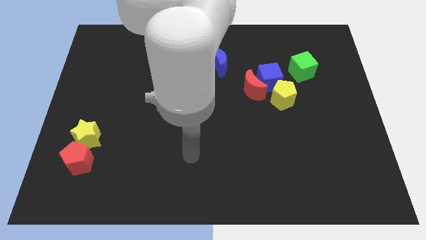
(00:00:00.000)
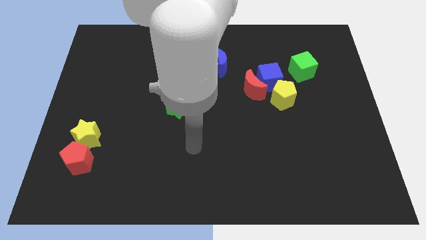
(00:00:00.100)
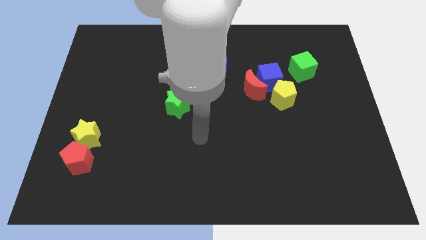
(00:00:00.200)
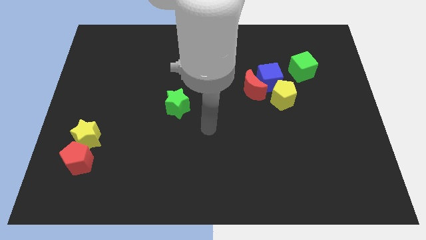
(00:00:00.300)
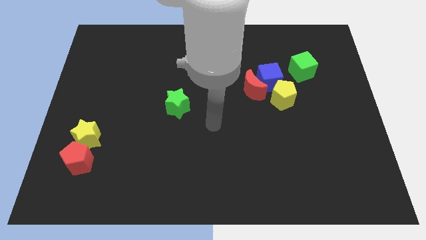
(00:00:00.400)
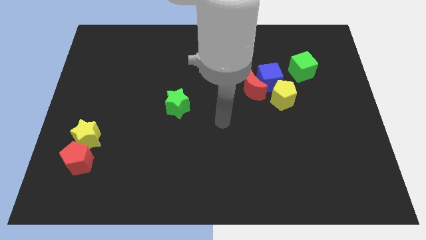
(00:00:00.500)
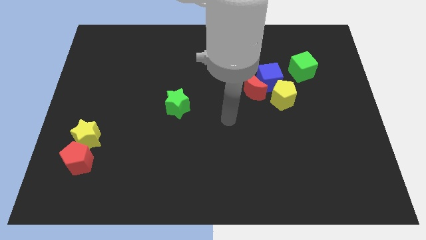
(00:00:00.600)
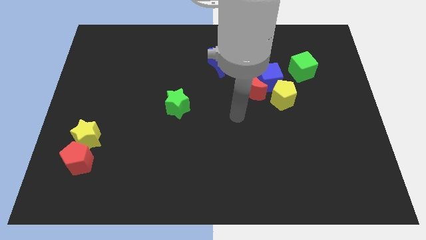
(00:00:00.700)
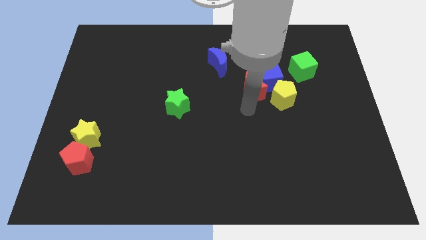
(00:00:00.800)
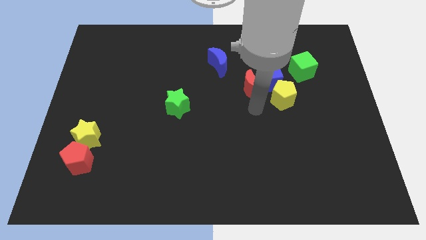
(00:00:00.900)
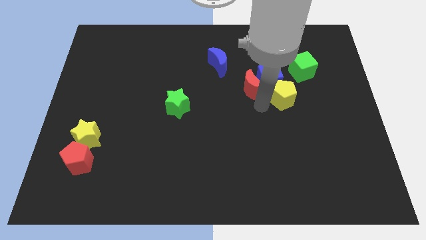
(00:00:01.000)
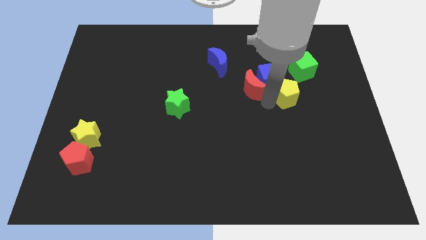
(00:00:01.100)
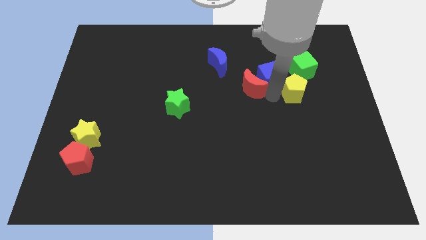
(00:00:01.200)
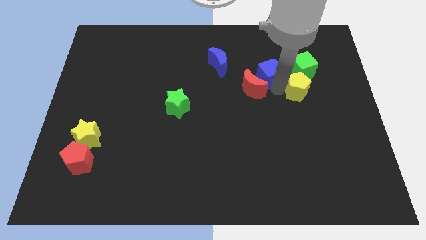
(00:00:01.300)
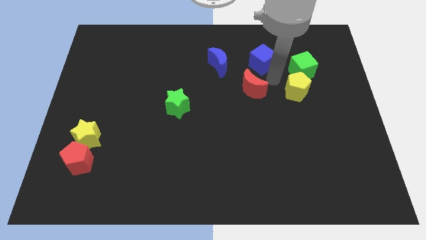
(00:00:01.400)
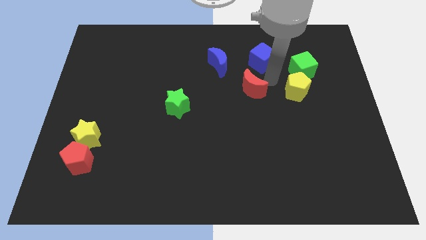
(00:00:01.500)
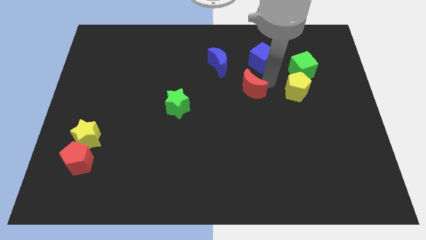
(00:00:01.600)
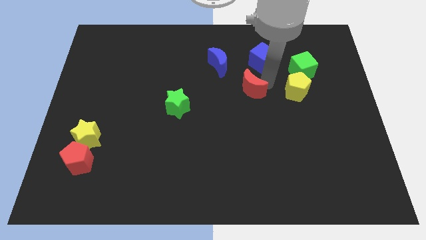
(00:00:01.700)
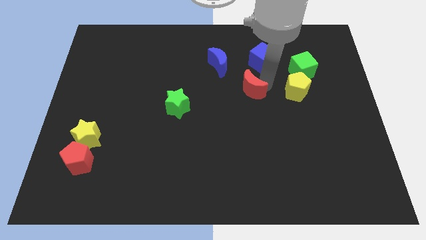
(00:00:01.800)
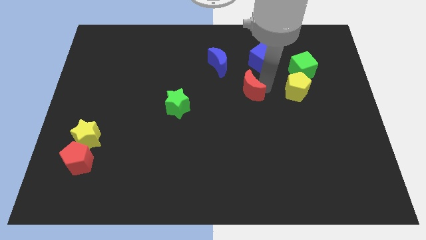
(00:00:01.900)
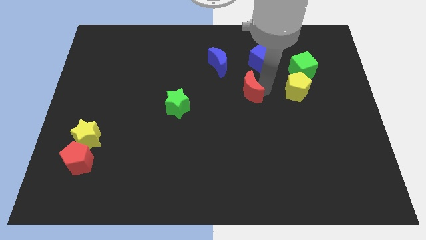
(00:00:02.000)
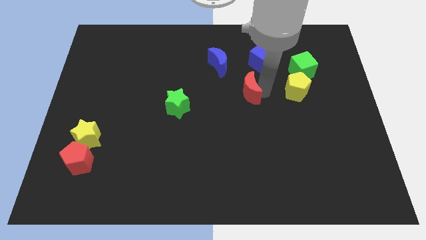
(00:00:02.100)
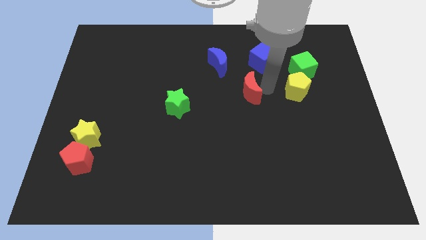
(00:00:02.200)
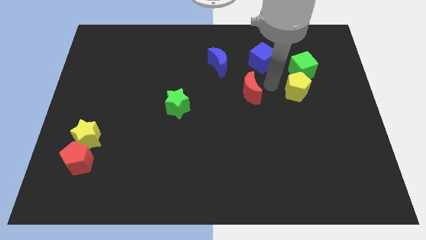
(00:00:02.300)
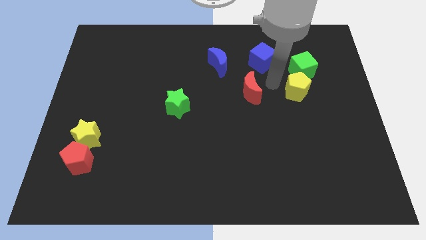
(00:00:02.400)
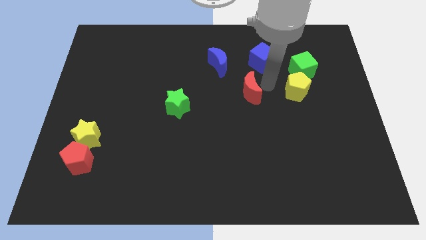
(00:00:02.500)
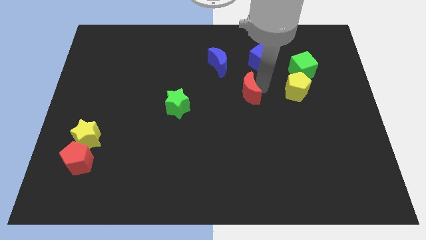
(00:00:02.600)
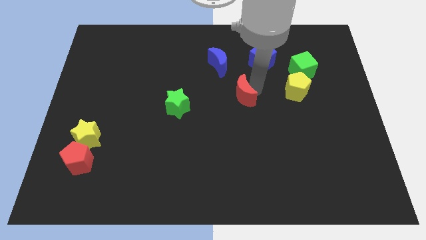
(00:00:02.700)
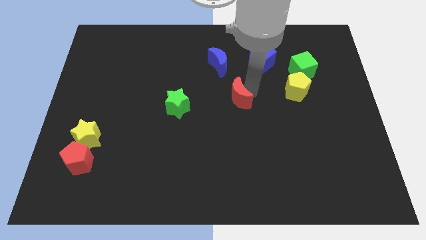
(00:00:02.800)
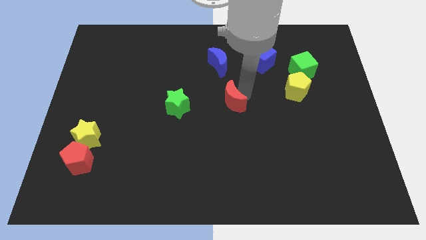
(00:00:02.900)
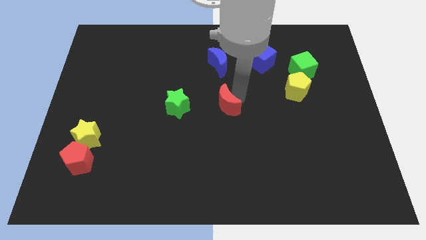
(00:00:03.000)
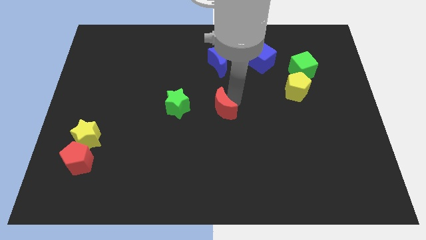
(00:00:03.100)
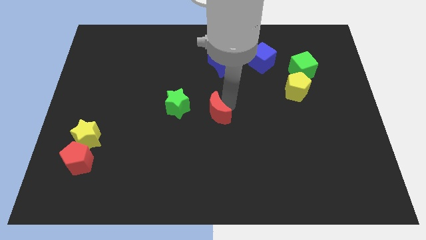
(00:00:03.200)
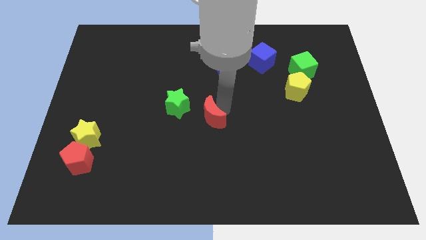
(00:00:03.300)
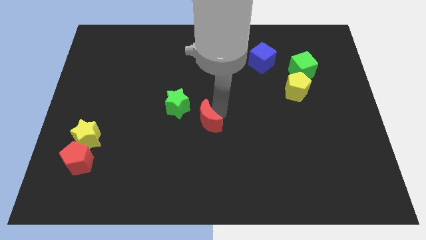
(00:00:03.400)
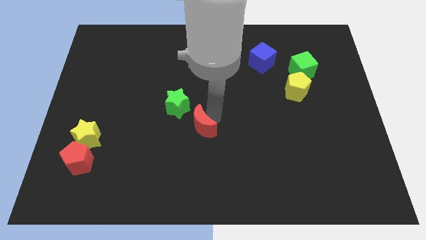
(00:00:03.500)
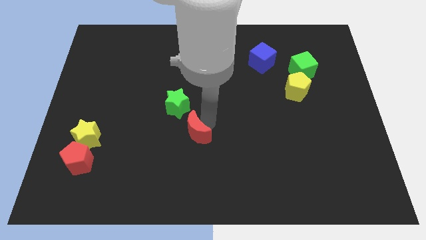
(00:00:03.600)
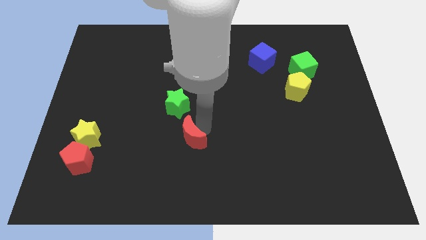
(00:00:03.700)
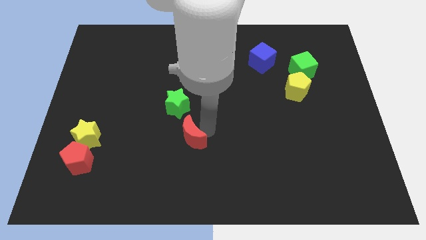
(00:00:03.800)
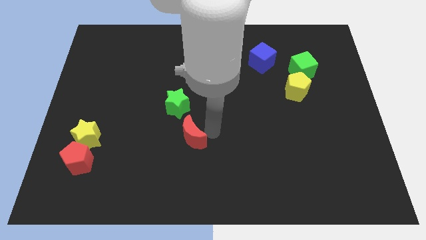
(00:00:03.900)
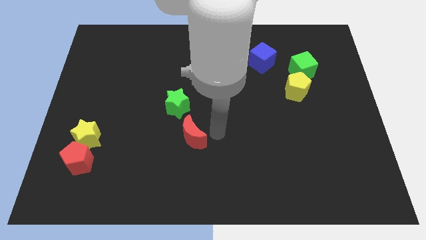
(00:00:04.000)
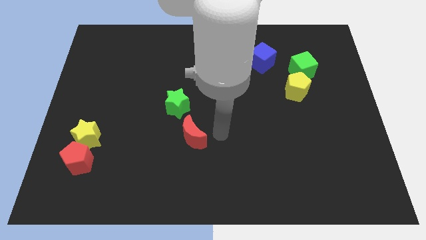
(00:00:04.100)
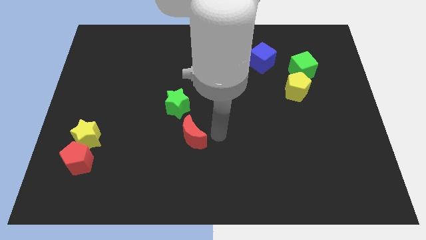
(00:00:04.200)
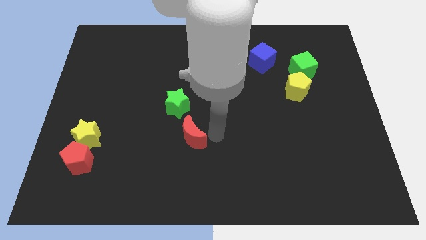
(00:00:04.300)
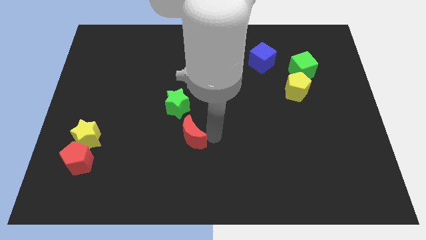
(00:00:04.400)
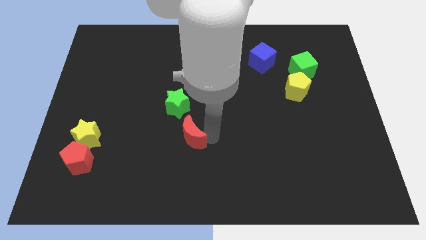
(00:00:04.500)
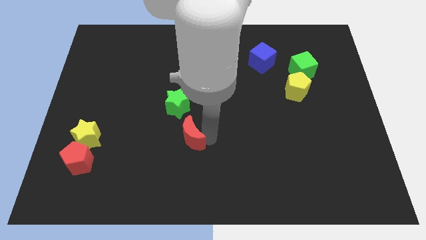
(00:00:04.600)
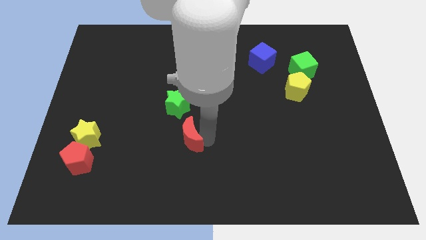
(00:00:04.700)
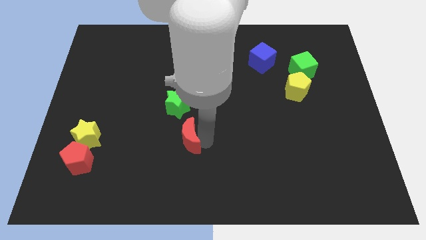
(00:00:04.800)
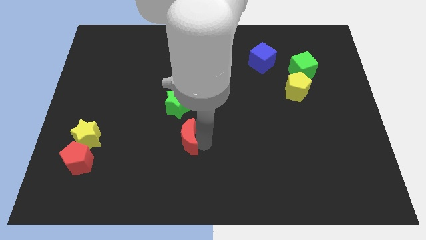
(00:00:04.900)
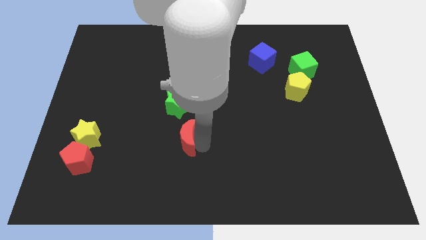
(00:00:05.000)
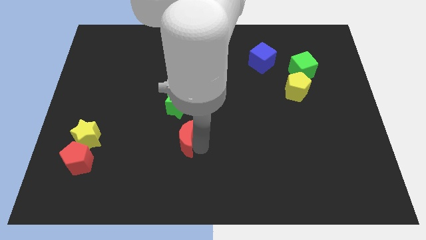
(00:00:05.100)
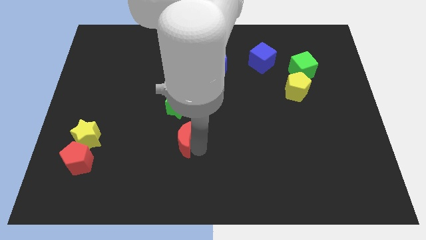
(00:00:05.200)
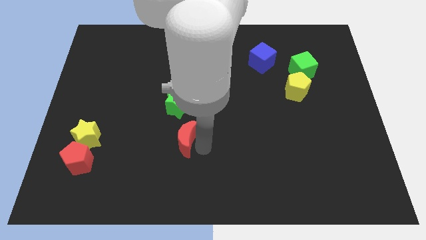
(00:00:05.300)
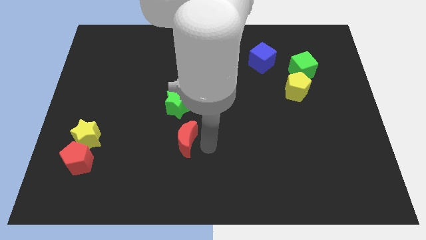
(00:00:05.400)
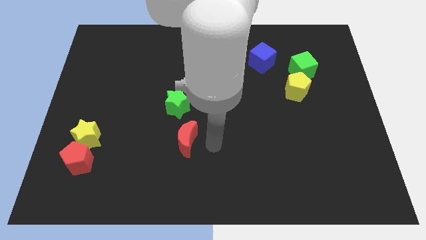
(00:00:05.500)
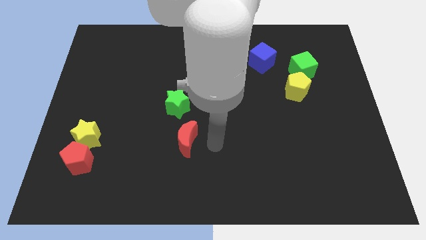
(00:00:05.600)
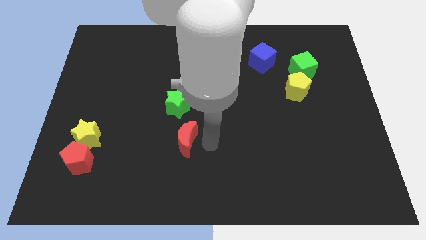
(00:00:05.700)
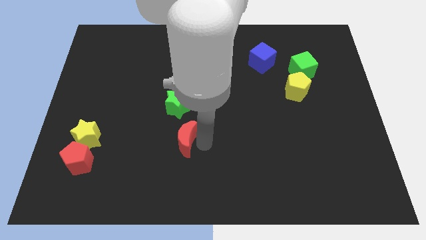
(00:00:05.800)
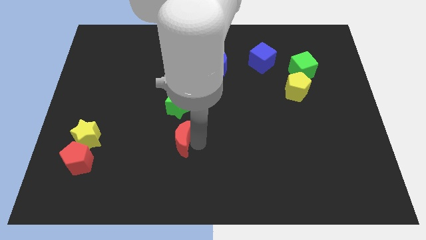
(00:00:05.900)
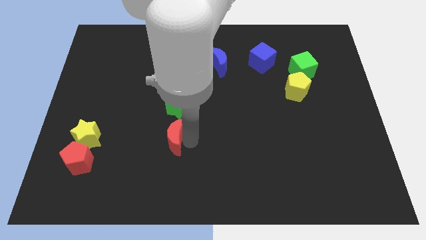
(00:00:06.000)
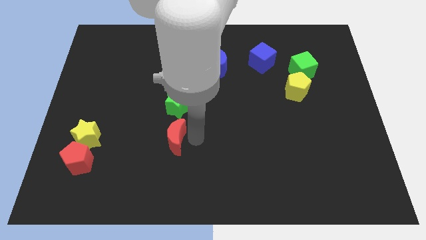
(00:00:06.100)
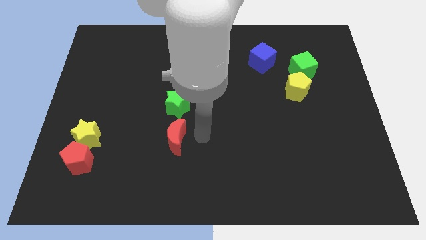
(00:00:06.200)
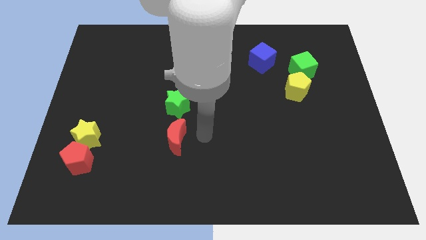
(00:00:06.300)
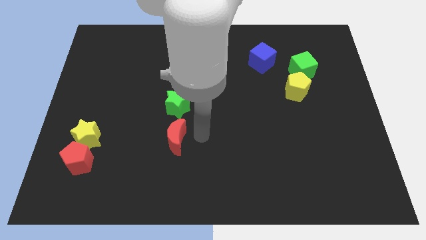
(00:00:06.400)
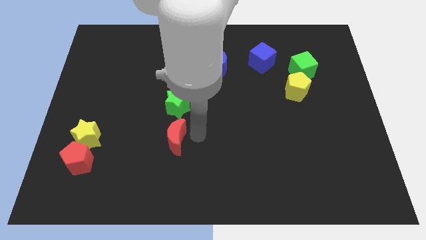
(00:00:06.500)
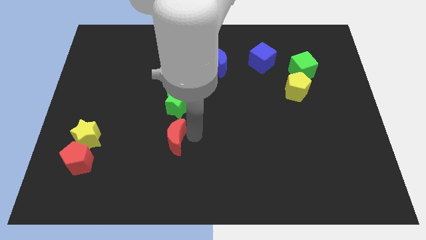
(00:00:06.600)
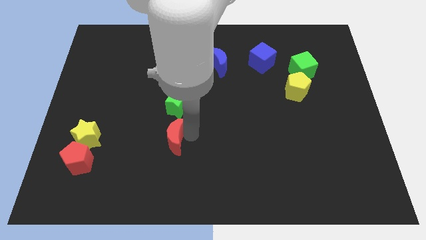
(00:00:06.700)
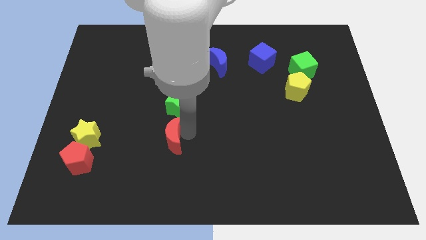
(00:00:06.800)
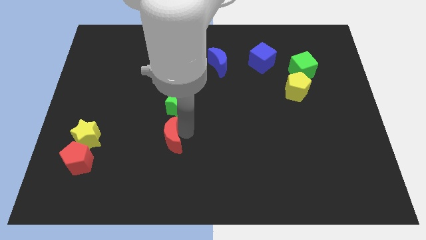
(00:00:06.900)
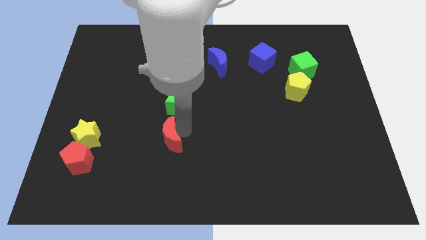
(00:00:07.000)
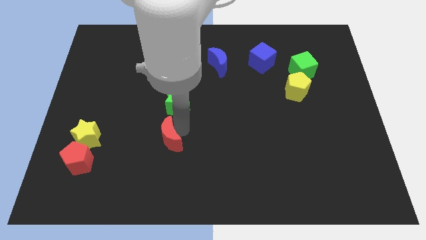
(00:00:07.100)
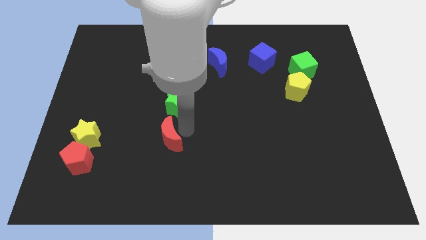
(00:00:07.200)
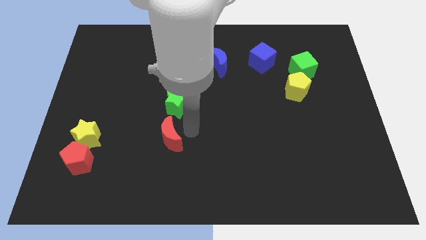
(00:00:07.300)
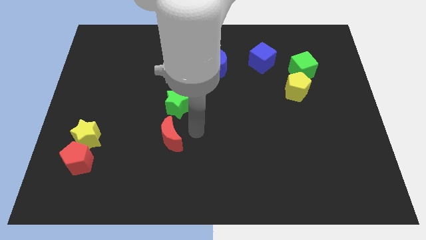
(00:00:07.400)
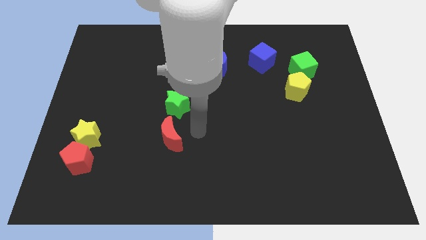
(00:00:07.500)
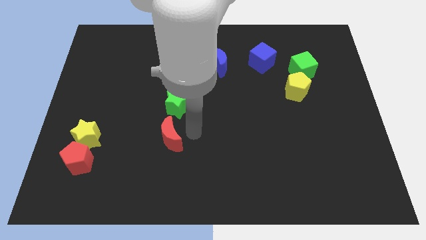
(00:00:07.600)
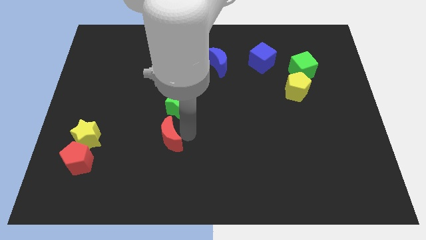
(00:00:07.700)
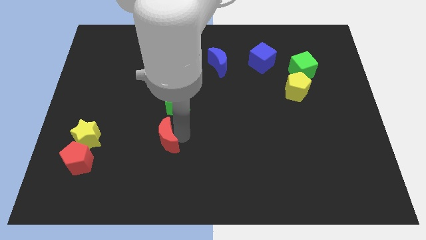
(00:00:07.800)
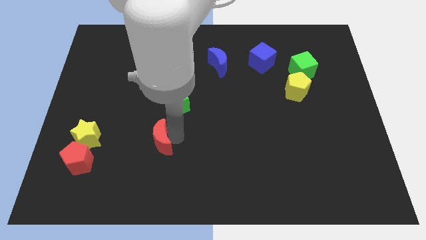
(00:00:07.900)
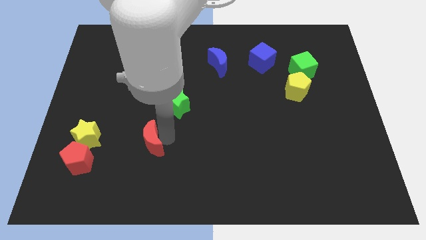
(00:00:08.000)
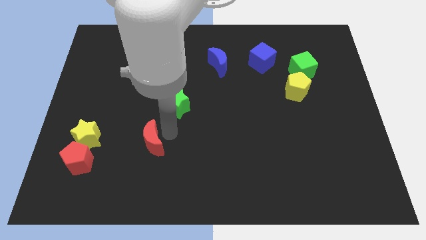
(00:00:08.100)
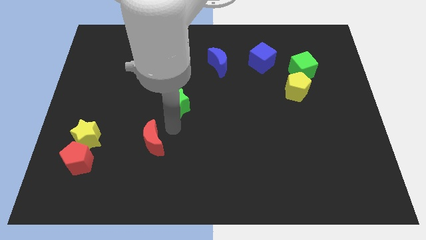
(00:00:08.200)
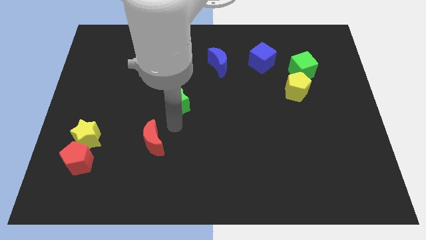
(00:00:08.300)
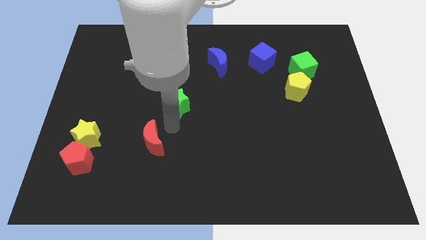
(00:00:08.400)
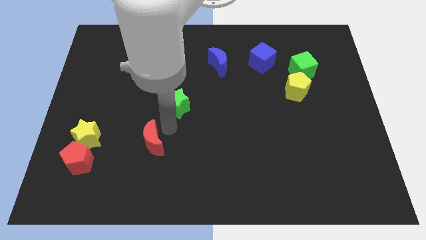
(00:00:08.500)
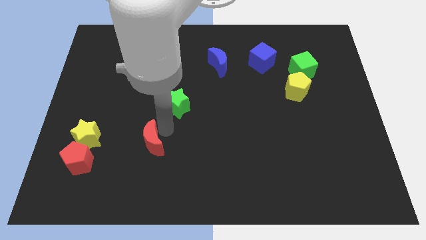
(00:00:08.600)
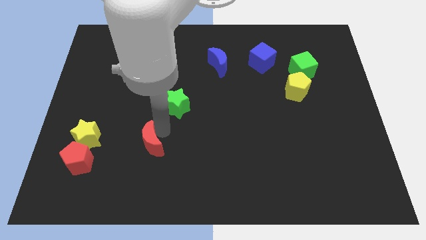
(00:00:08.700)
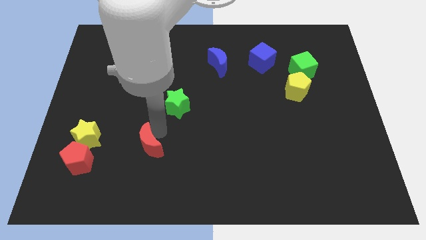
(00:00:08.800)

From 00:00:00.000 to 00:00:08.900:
move the red moon just right of the red pentagon
